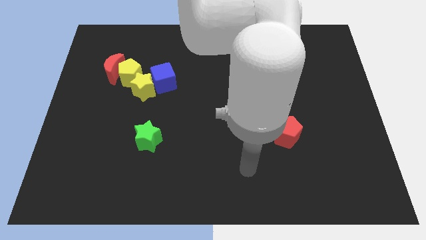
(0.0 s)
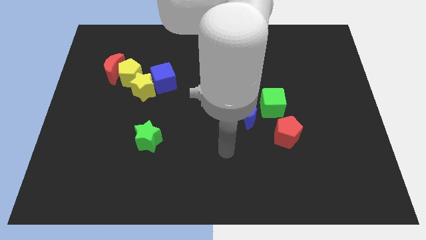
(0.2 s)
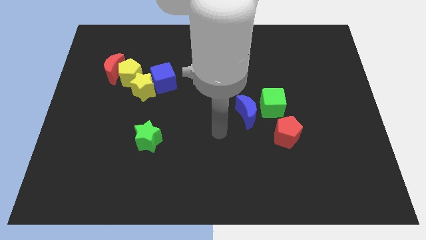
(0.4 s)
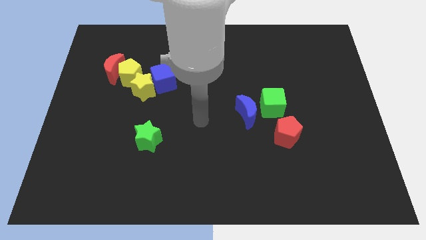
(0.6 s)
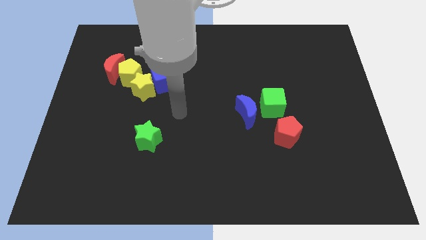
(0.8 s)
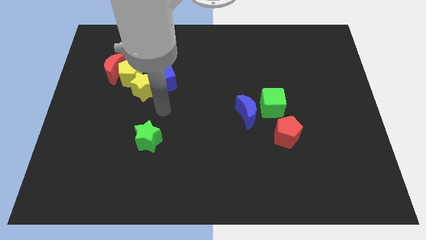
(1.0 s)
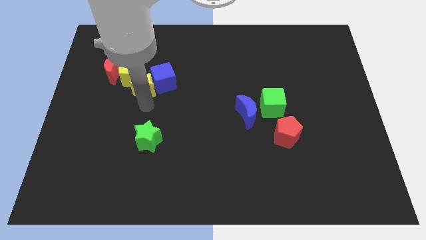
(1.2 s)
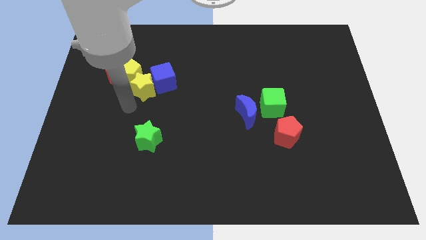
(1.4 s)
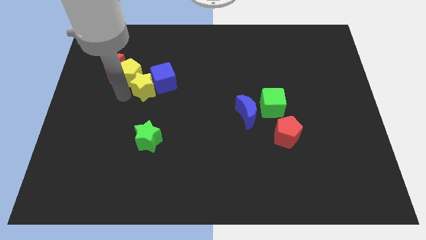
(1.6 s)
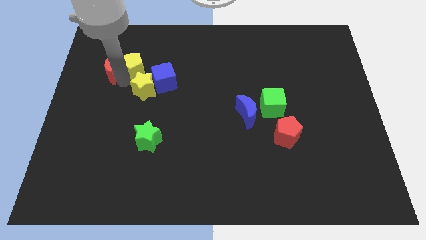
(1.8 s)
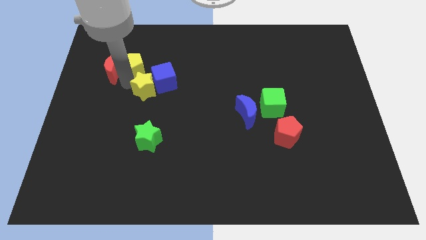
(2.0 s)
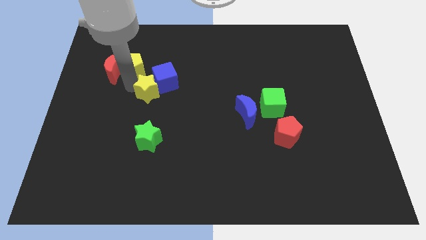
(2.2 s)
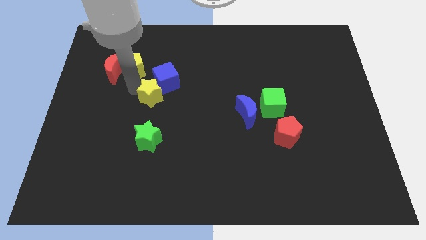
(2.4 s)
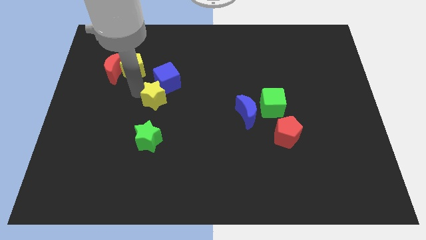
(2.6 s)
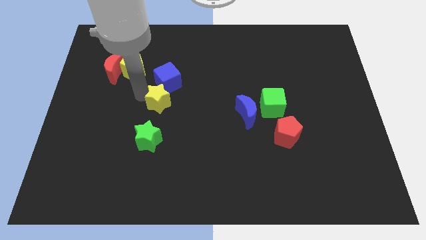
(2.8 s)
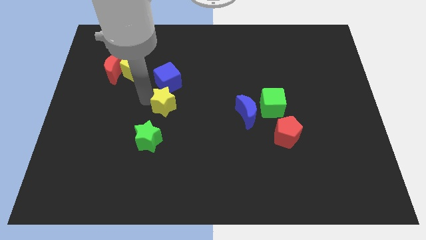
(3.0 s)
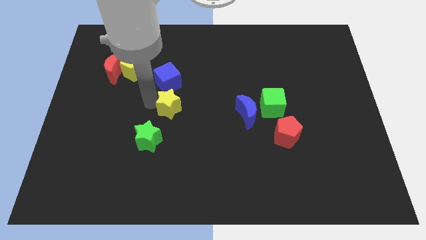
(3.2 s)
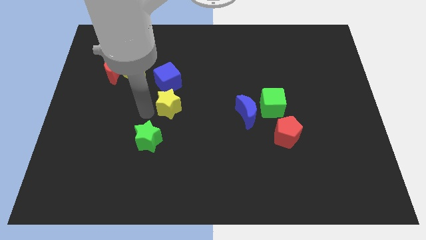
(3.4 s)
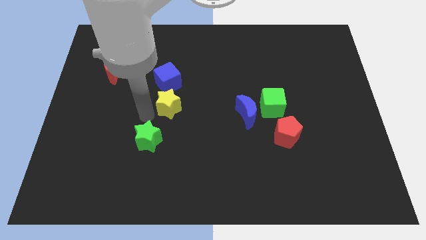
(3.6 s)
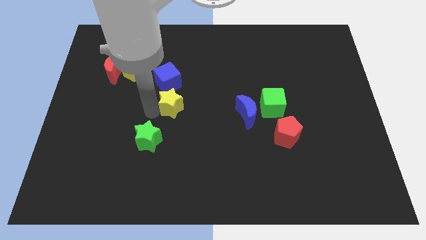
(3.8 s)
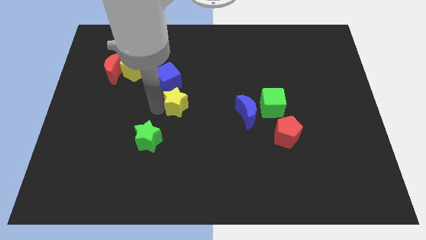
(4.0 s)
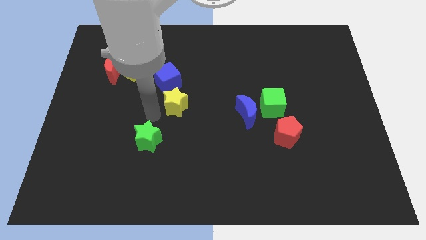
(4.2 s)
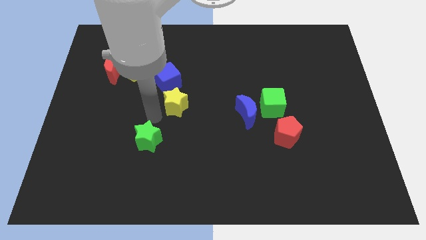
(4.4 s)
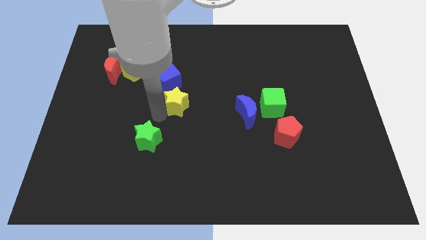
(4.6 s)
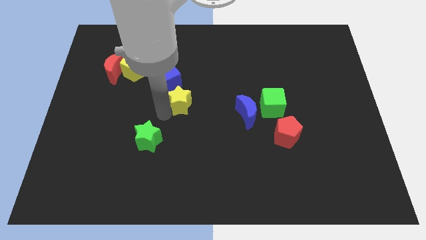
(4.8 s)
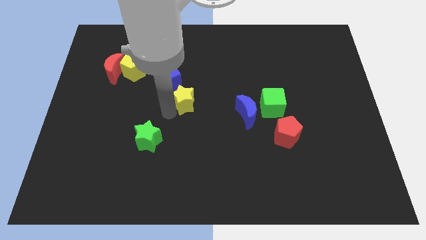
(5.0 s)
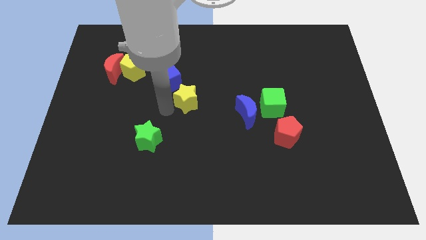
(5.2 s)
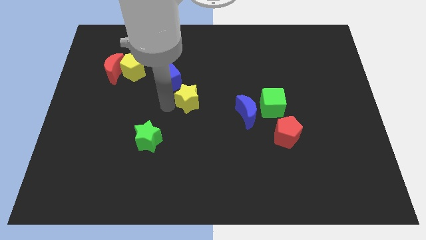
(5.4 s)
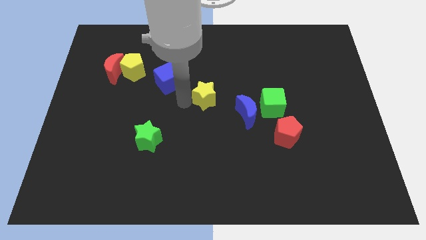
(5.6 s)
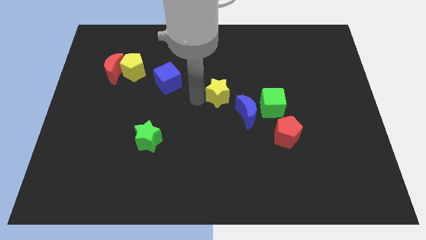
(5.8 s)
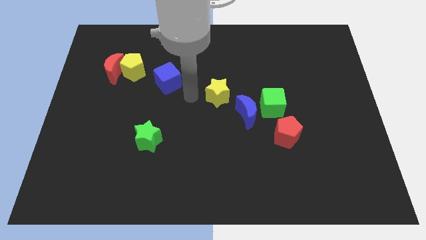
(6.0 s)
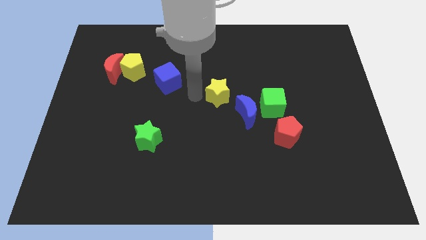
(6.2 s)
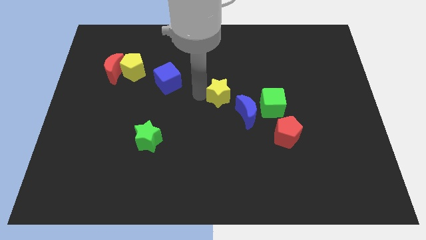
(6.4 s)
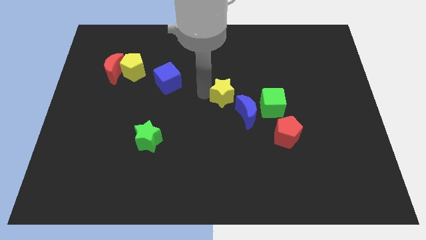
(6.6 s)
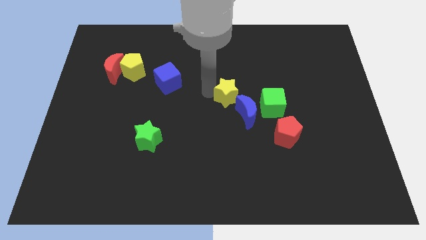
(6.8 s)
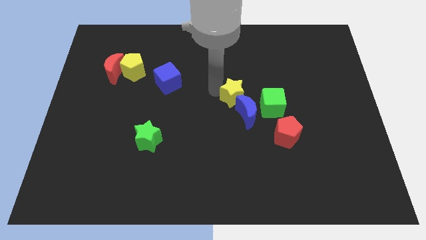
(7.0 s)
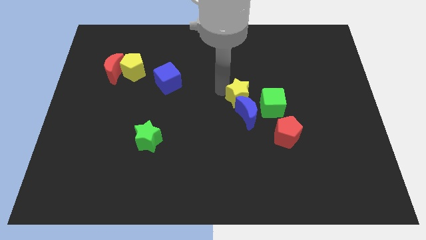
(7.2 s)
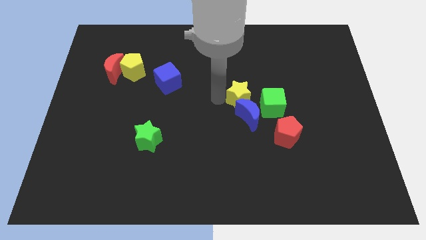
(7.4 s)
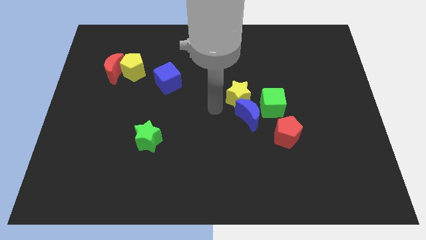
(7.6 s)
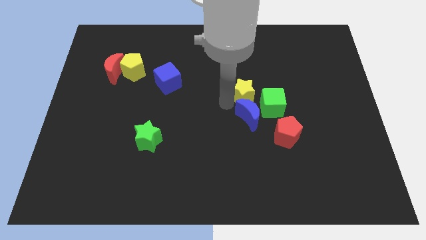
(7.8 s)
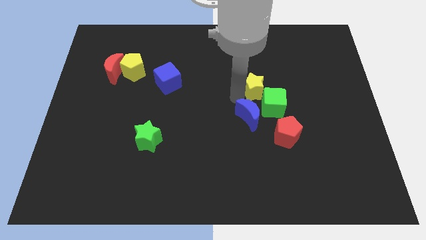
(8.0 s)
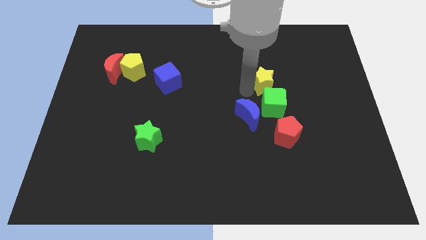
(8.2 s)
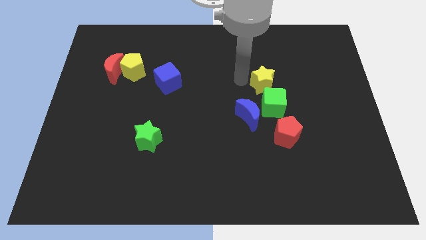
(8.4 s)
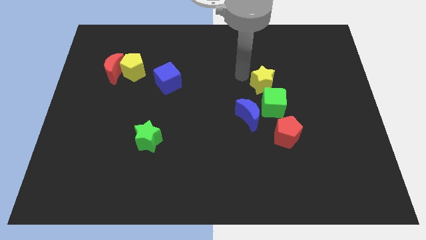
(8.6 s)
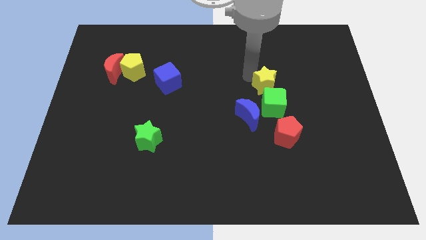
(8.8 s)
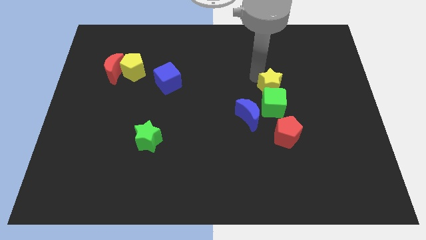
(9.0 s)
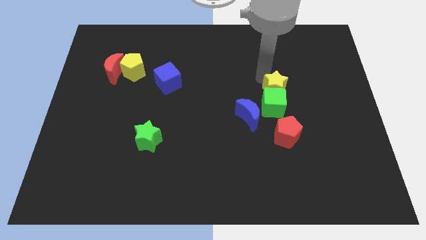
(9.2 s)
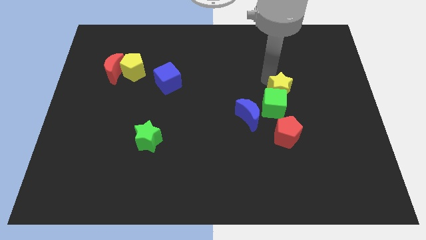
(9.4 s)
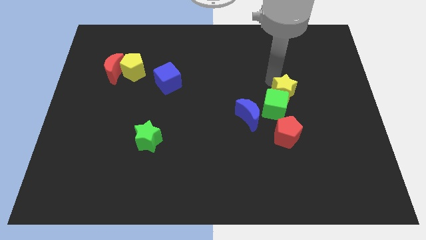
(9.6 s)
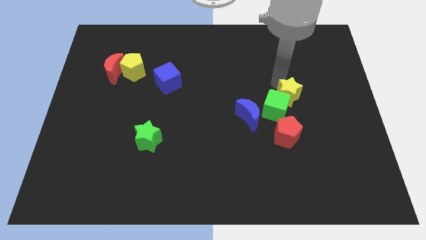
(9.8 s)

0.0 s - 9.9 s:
push the yellow star right of the green cube

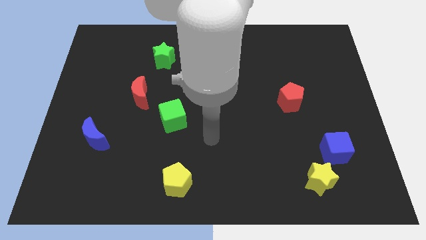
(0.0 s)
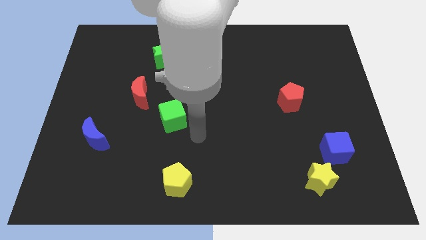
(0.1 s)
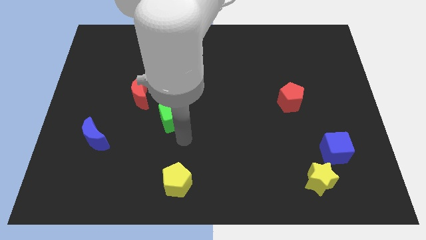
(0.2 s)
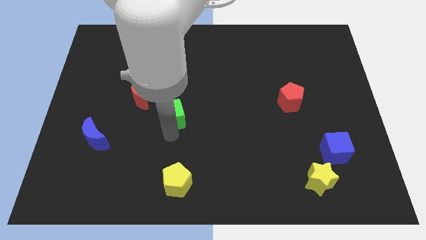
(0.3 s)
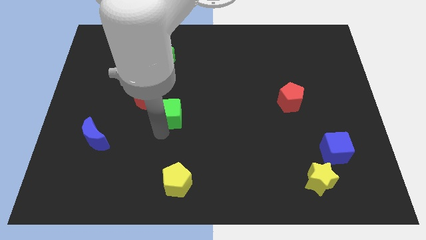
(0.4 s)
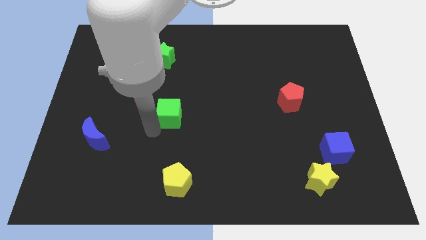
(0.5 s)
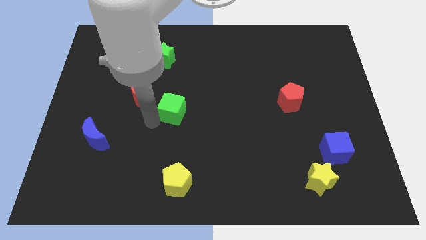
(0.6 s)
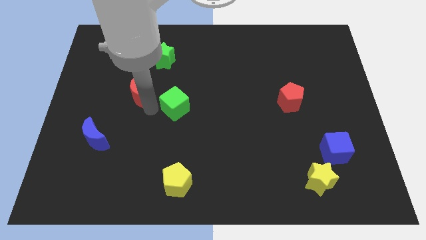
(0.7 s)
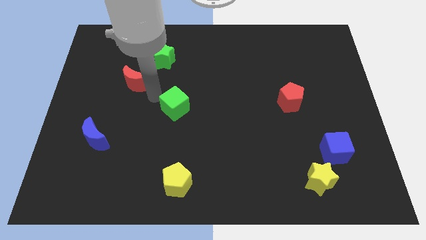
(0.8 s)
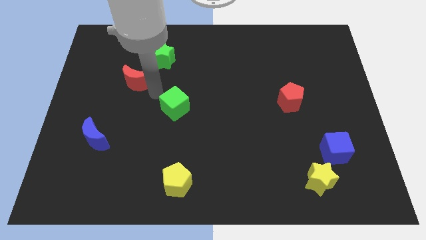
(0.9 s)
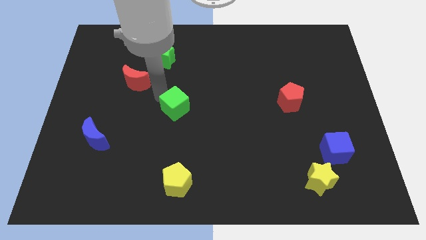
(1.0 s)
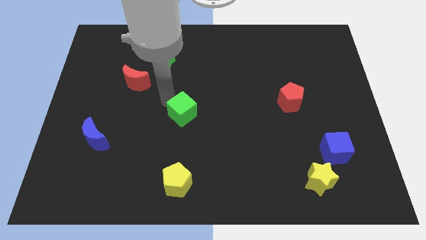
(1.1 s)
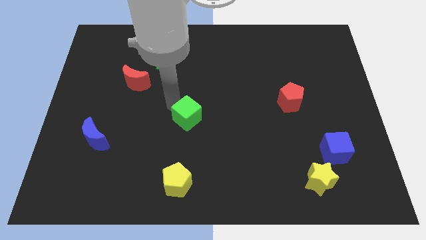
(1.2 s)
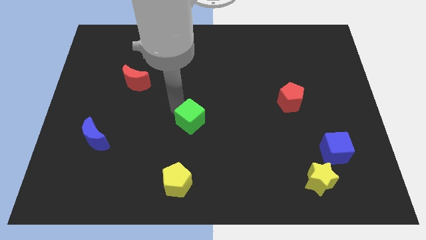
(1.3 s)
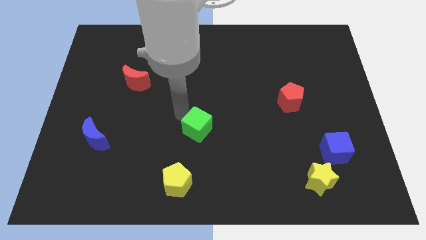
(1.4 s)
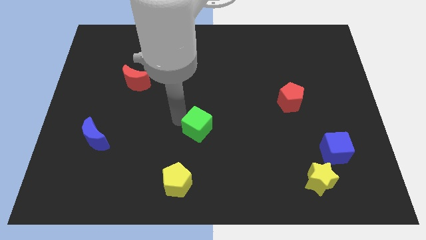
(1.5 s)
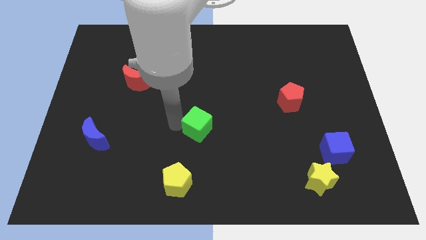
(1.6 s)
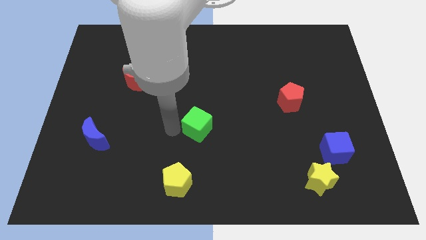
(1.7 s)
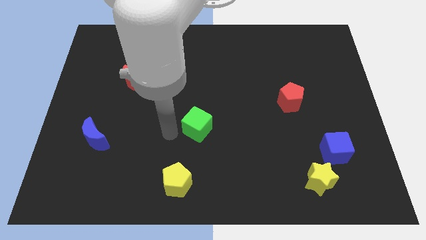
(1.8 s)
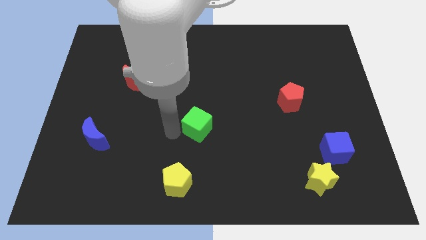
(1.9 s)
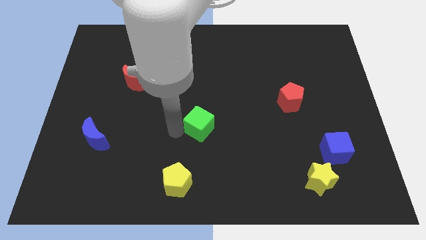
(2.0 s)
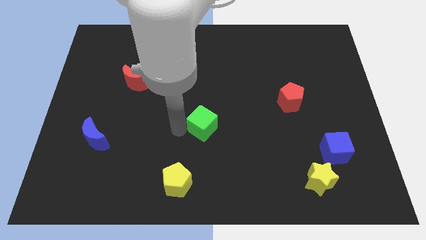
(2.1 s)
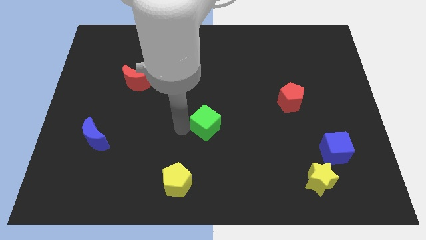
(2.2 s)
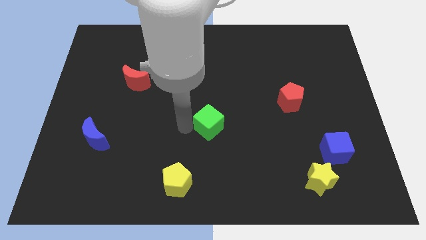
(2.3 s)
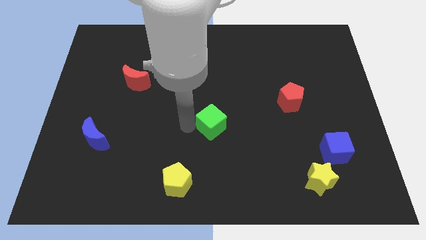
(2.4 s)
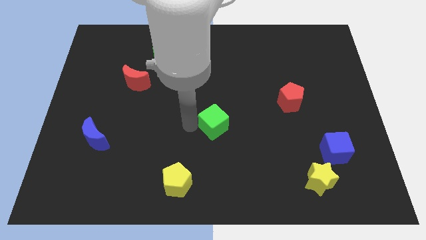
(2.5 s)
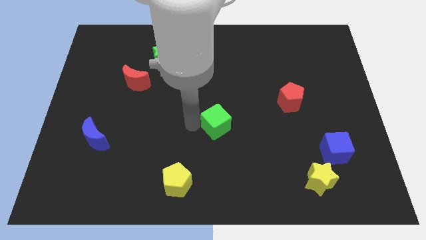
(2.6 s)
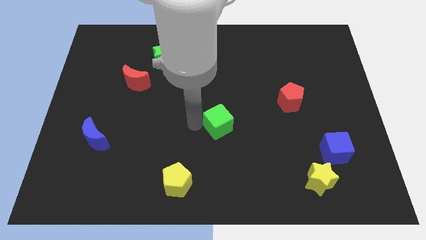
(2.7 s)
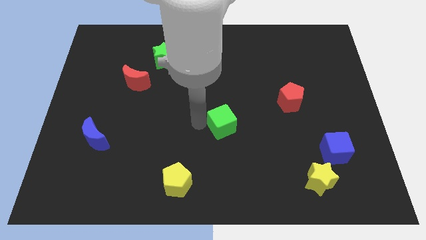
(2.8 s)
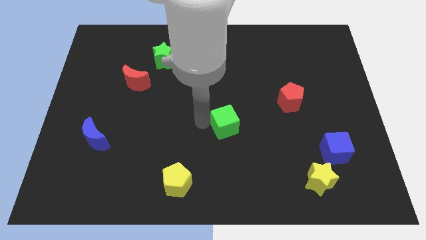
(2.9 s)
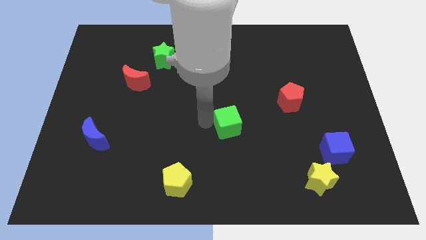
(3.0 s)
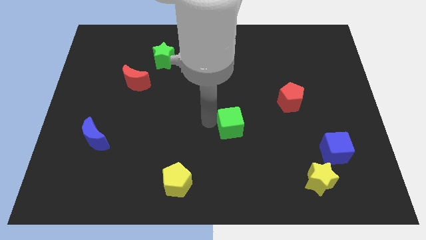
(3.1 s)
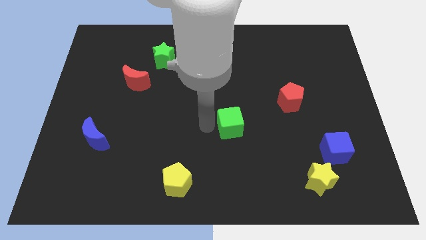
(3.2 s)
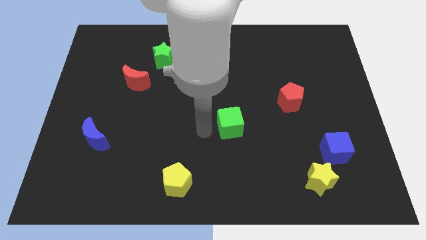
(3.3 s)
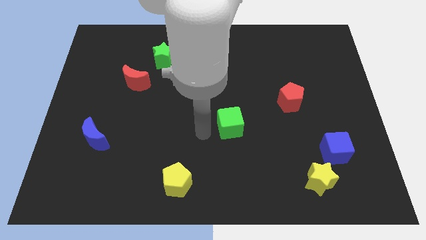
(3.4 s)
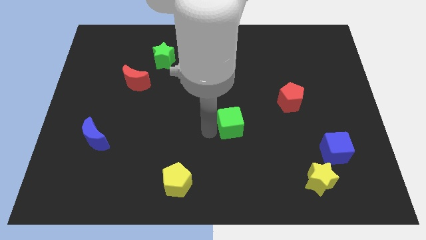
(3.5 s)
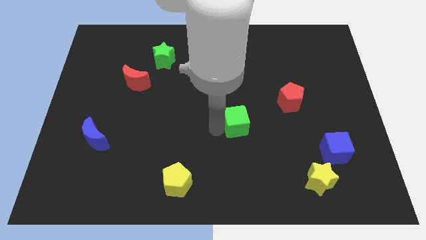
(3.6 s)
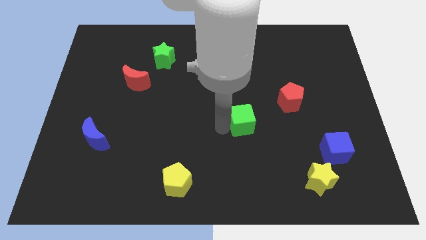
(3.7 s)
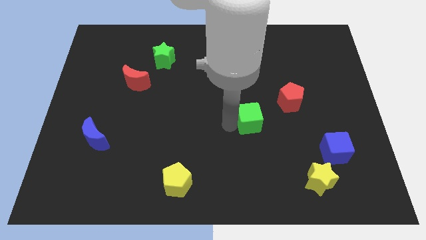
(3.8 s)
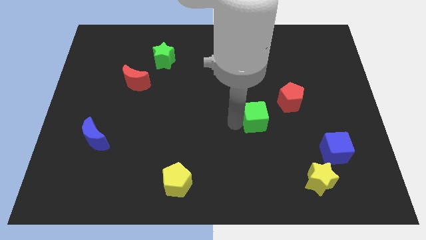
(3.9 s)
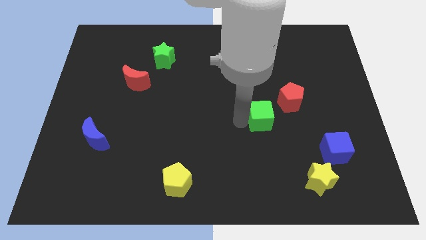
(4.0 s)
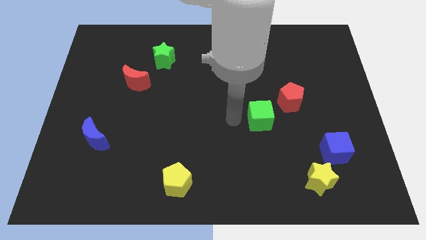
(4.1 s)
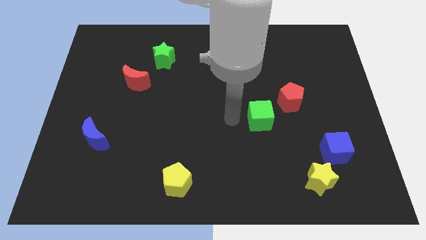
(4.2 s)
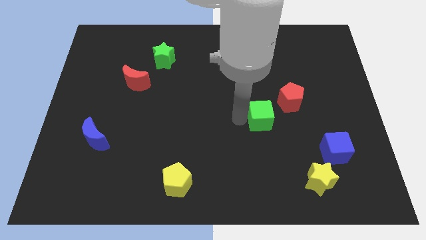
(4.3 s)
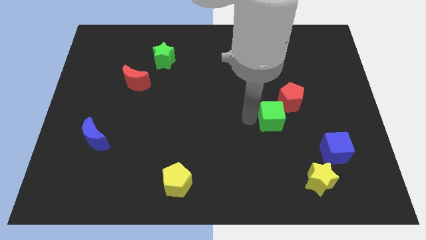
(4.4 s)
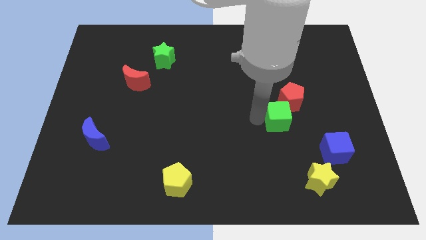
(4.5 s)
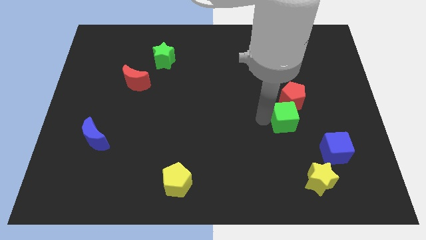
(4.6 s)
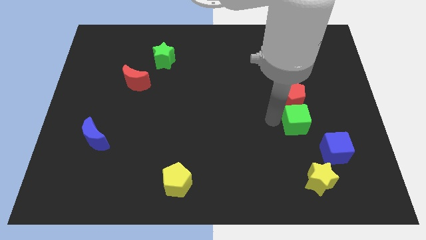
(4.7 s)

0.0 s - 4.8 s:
slide the green cube to the bottom right of the red pentagon
